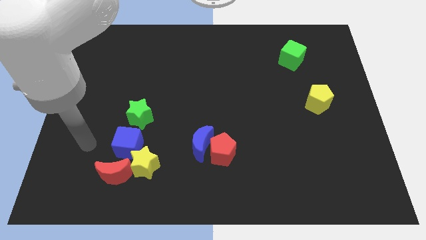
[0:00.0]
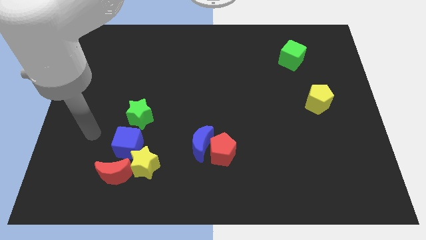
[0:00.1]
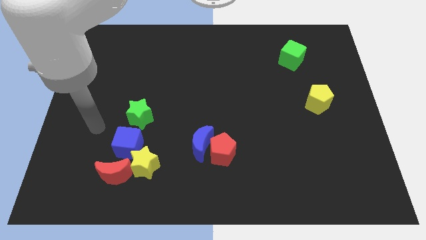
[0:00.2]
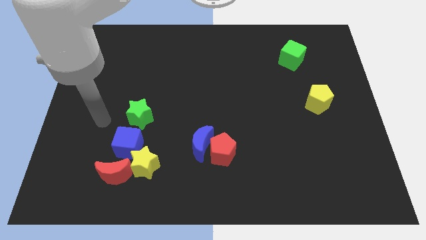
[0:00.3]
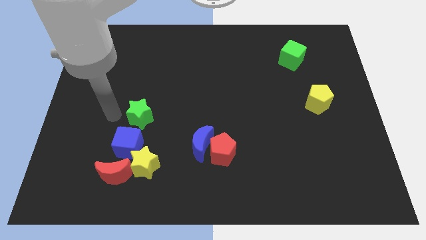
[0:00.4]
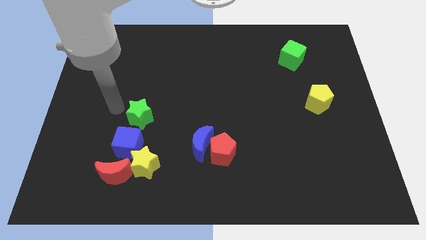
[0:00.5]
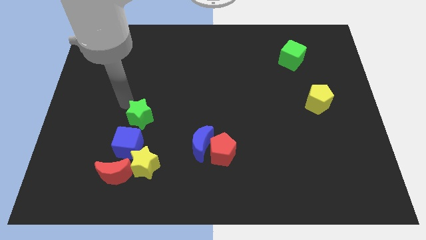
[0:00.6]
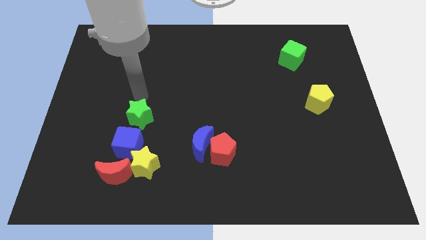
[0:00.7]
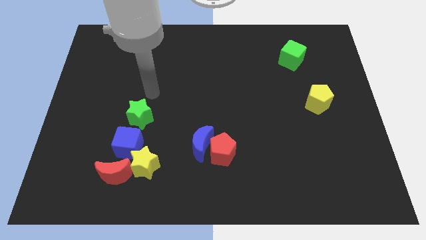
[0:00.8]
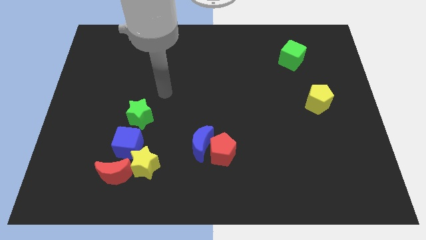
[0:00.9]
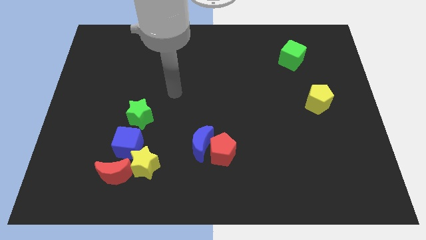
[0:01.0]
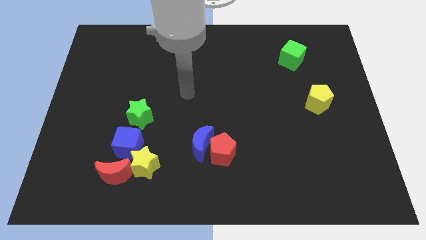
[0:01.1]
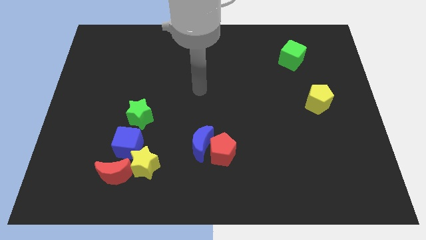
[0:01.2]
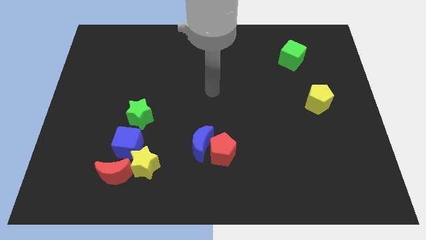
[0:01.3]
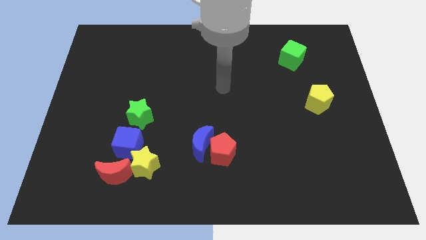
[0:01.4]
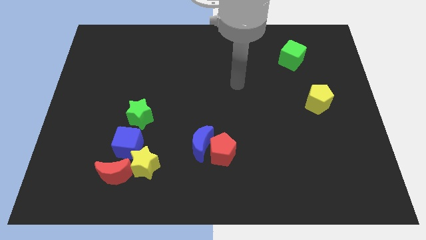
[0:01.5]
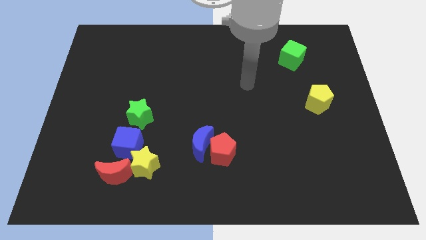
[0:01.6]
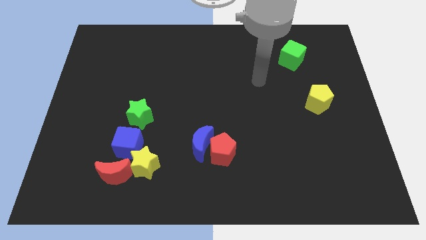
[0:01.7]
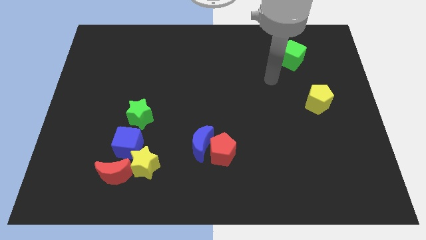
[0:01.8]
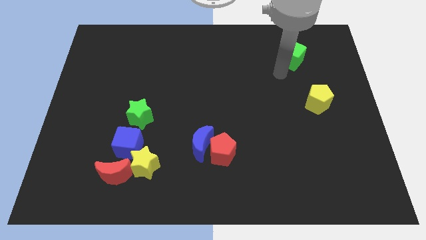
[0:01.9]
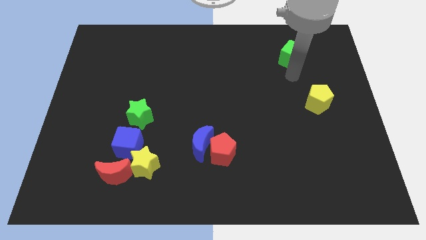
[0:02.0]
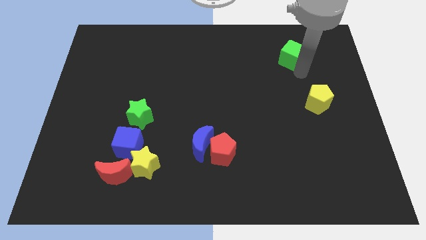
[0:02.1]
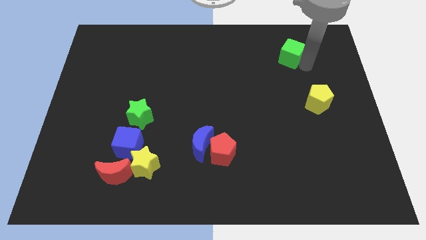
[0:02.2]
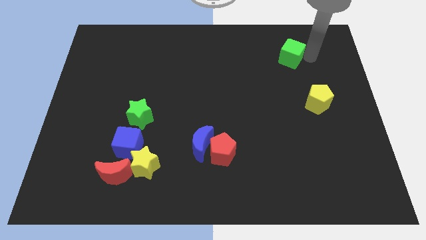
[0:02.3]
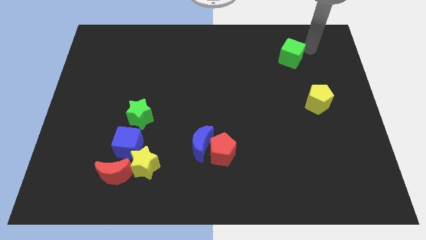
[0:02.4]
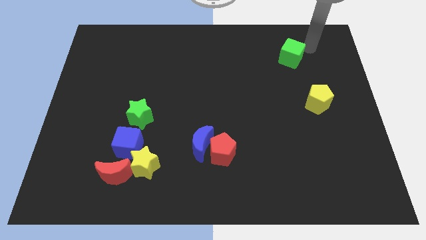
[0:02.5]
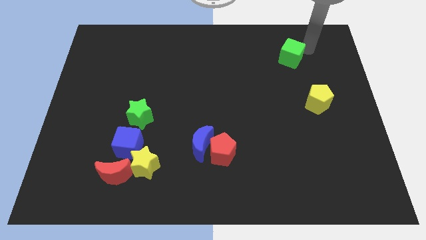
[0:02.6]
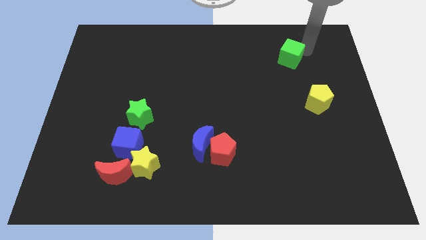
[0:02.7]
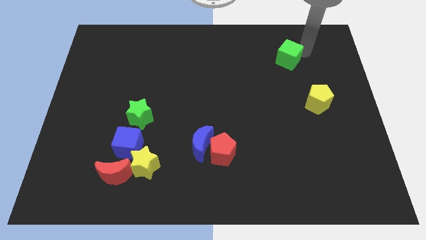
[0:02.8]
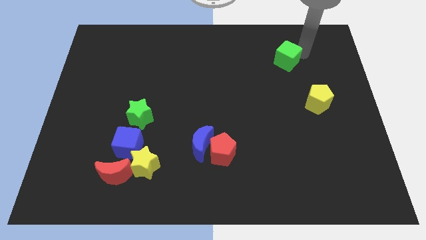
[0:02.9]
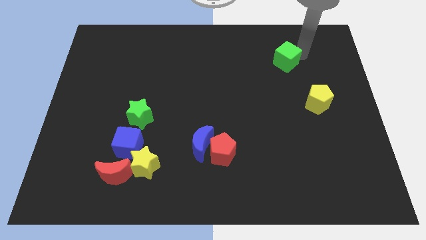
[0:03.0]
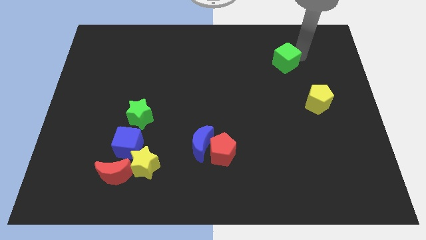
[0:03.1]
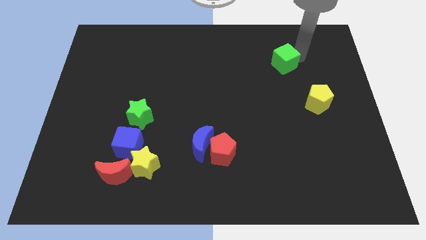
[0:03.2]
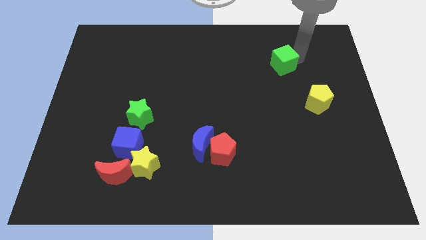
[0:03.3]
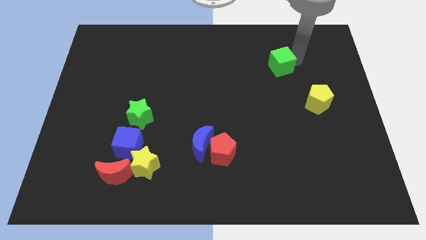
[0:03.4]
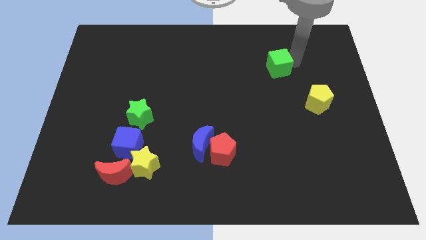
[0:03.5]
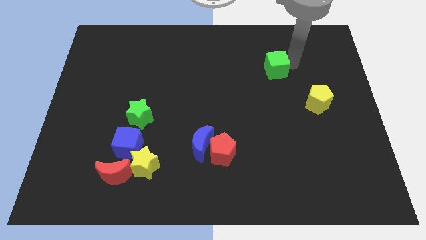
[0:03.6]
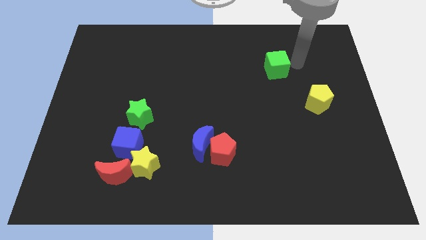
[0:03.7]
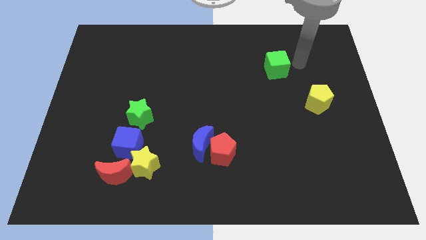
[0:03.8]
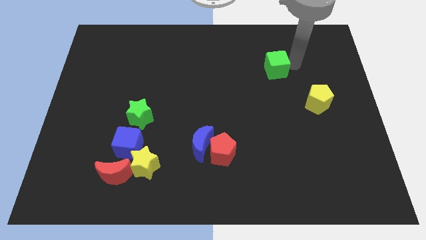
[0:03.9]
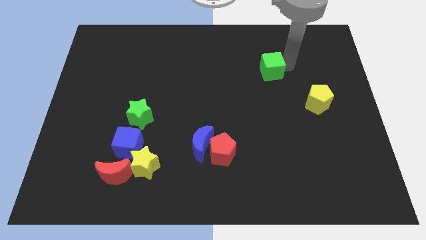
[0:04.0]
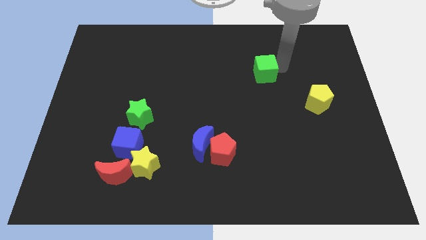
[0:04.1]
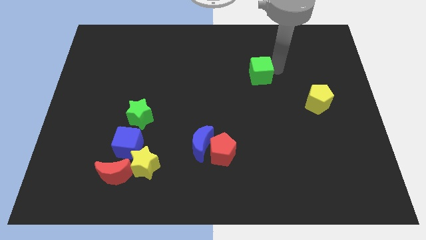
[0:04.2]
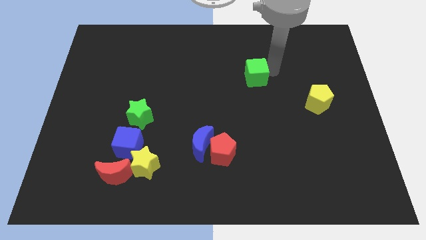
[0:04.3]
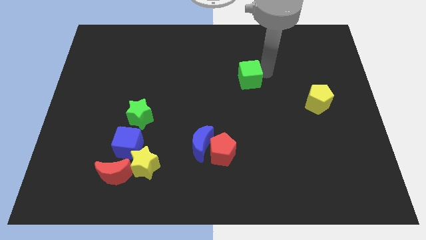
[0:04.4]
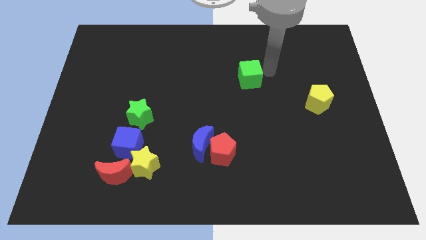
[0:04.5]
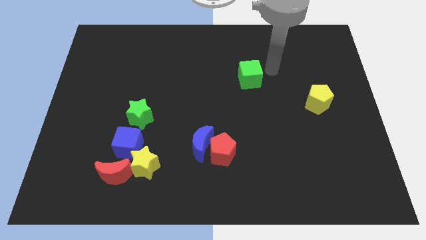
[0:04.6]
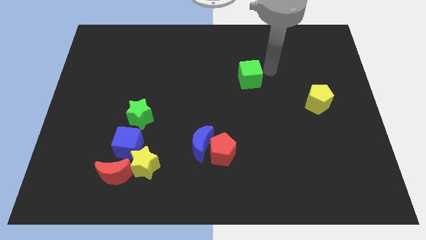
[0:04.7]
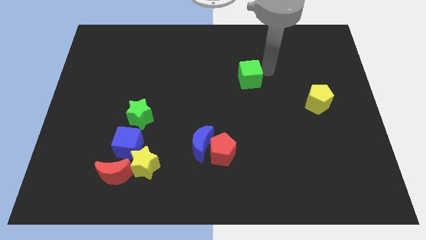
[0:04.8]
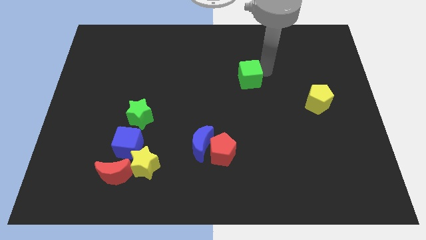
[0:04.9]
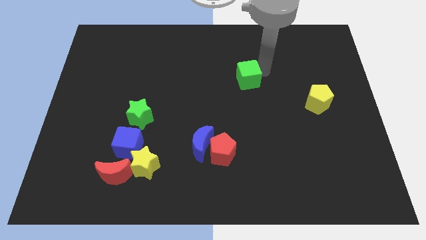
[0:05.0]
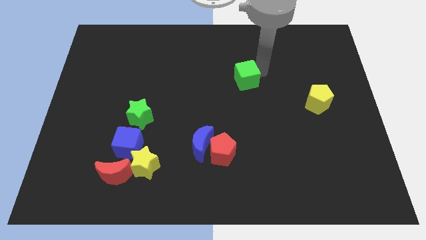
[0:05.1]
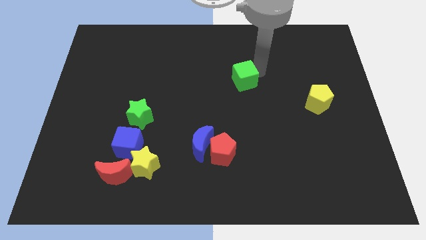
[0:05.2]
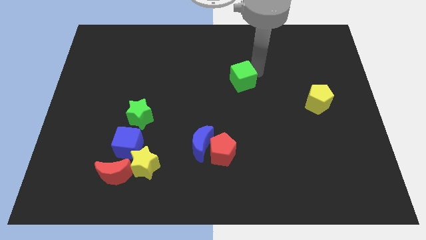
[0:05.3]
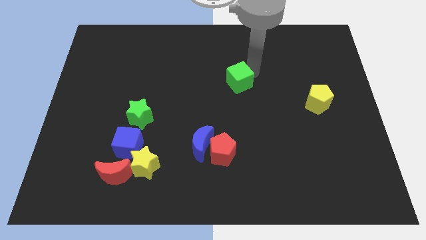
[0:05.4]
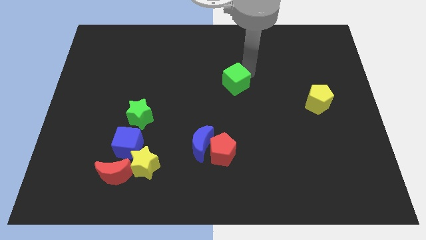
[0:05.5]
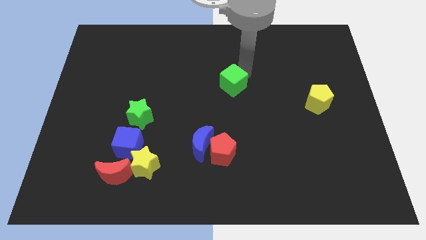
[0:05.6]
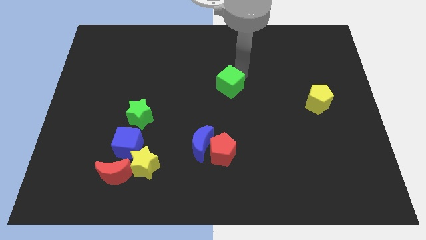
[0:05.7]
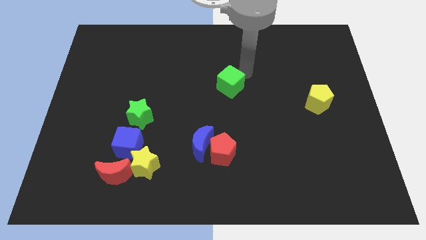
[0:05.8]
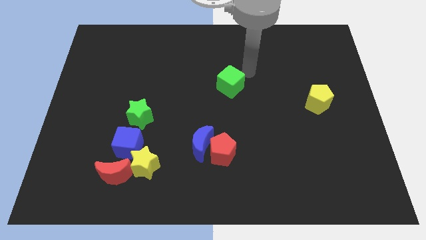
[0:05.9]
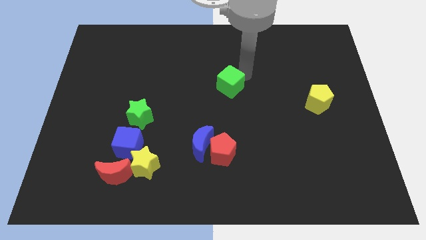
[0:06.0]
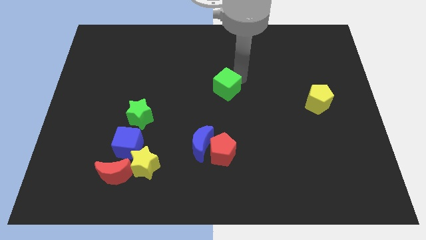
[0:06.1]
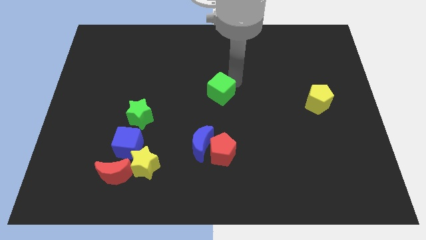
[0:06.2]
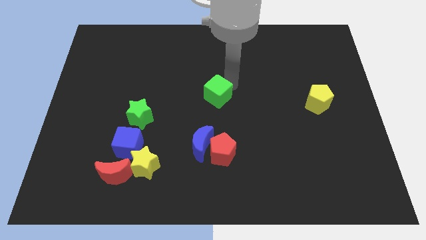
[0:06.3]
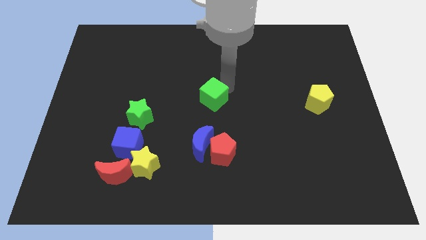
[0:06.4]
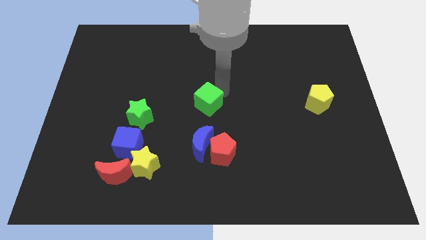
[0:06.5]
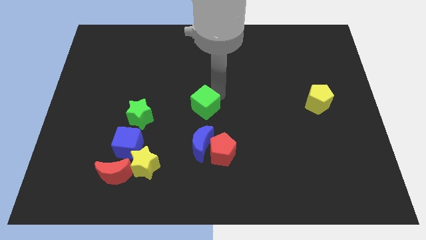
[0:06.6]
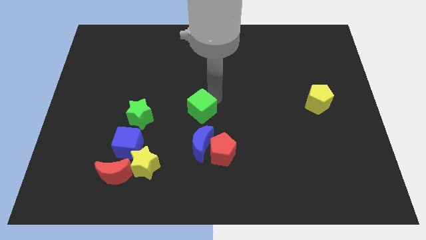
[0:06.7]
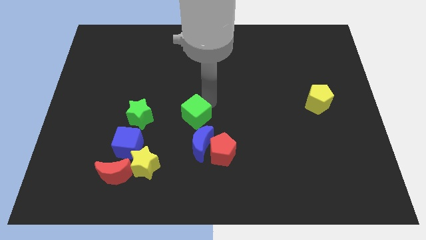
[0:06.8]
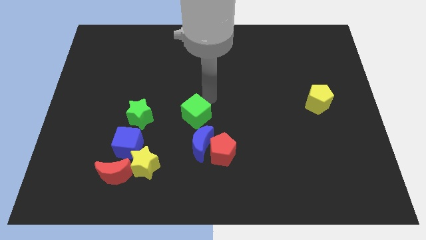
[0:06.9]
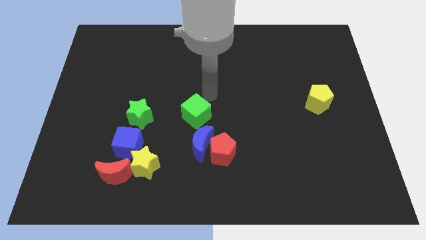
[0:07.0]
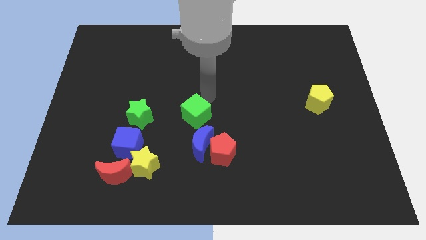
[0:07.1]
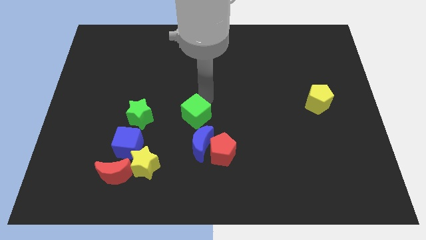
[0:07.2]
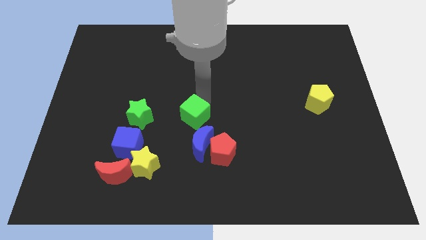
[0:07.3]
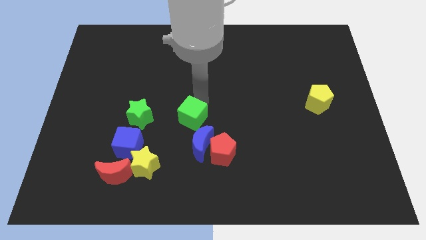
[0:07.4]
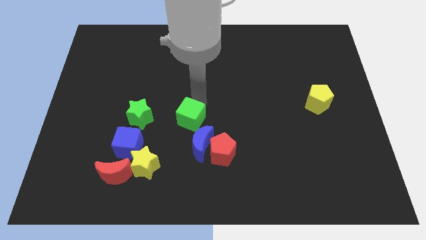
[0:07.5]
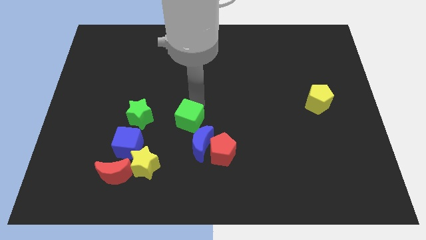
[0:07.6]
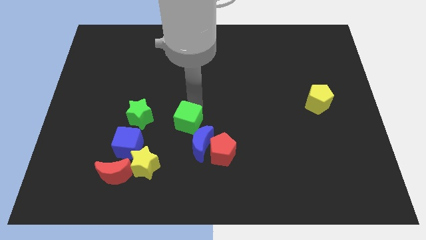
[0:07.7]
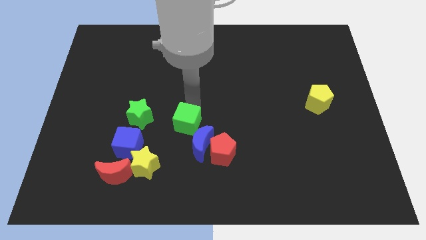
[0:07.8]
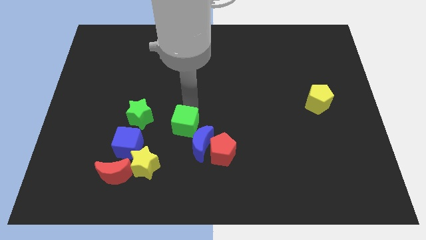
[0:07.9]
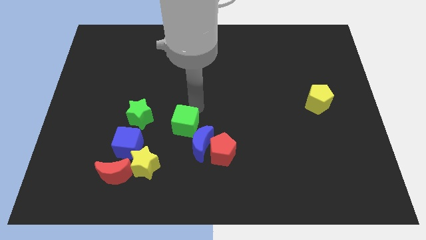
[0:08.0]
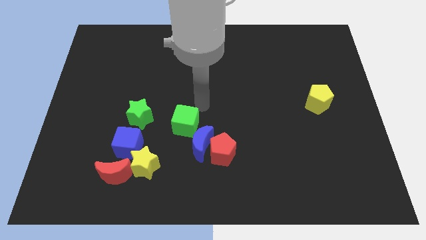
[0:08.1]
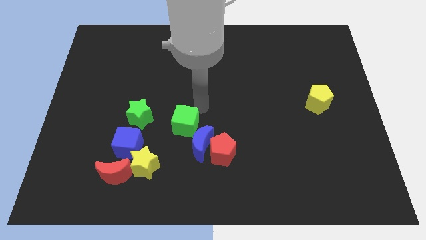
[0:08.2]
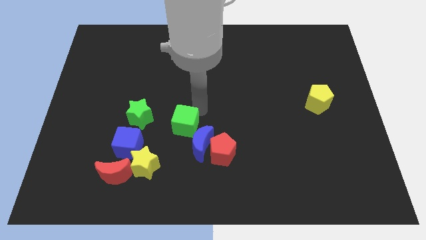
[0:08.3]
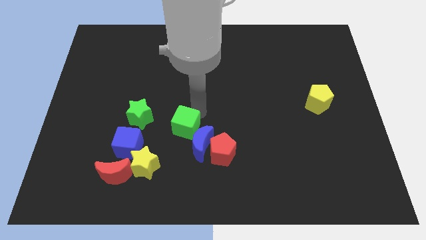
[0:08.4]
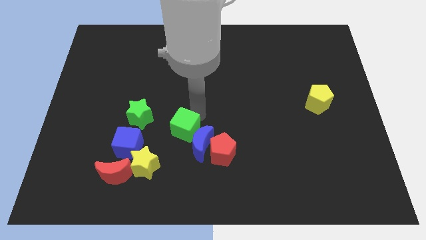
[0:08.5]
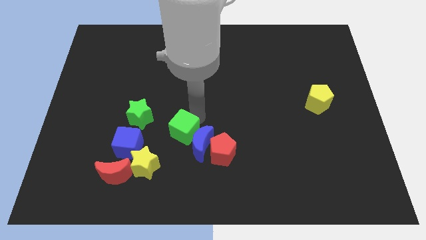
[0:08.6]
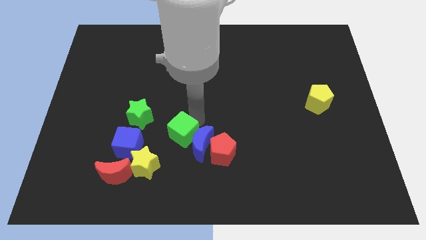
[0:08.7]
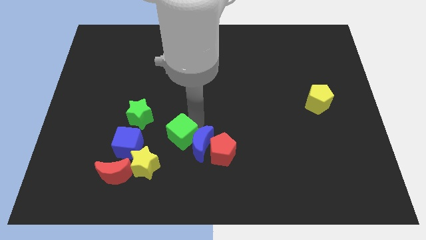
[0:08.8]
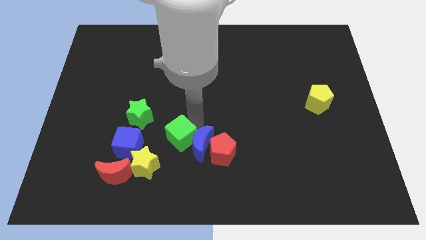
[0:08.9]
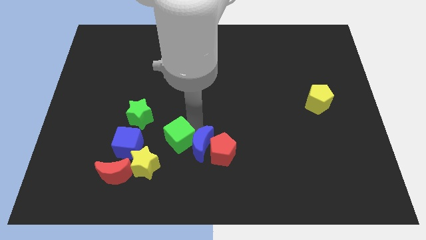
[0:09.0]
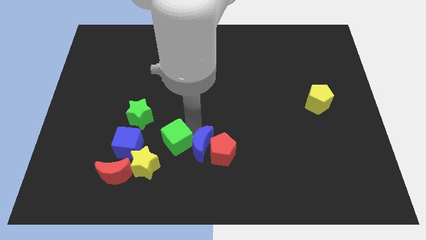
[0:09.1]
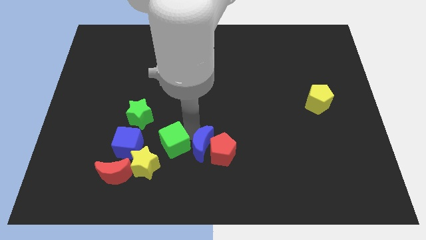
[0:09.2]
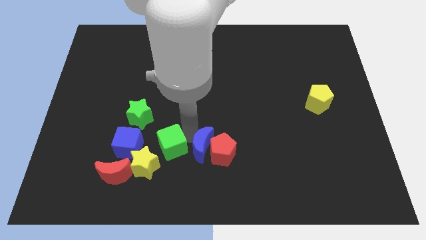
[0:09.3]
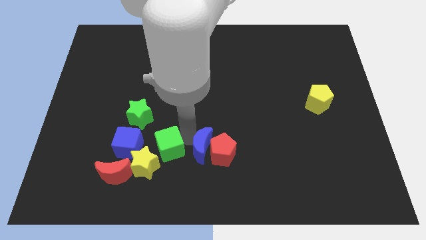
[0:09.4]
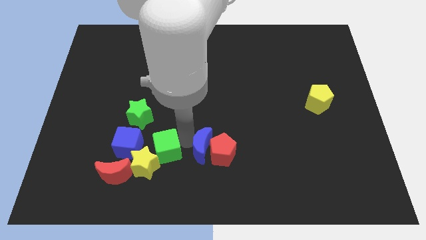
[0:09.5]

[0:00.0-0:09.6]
put the green cube to the top right side of the red moon
